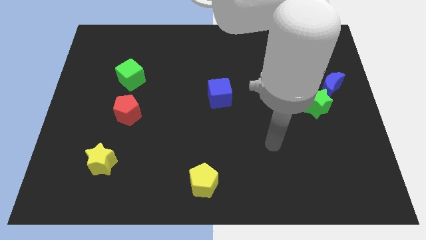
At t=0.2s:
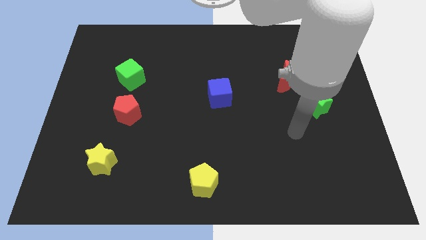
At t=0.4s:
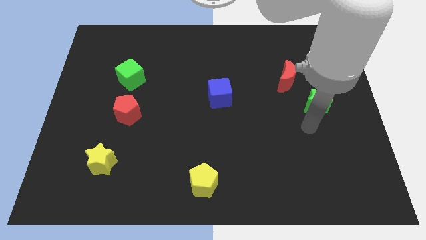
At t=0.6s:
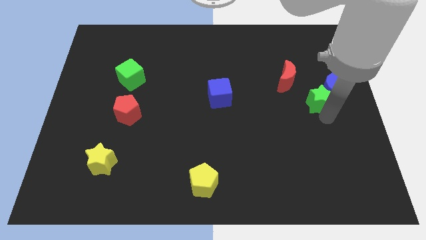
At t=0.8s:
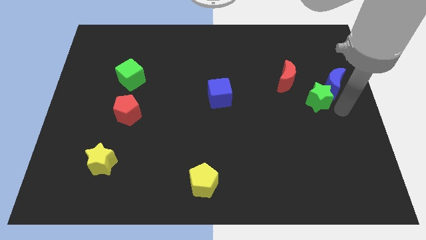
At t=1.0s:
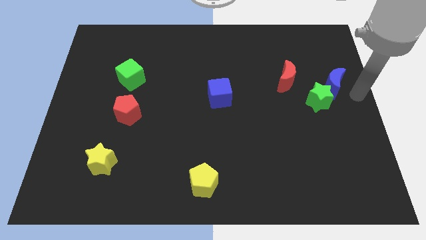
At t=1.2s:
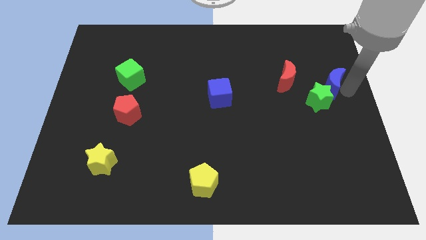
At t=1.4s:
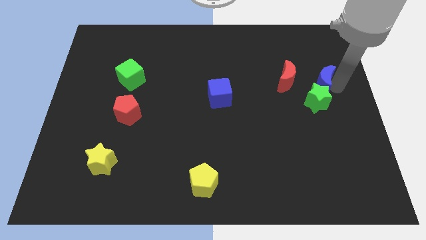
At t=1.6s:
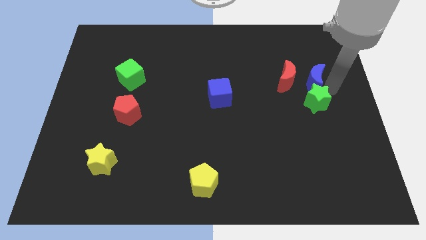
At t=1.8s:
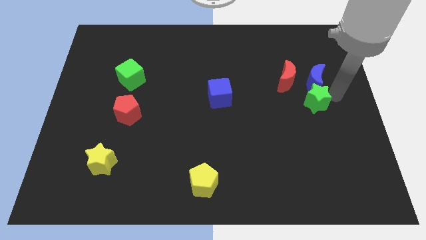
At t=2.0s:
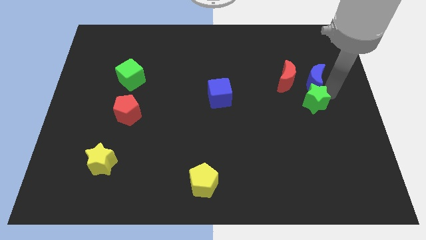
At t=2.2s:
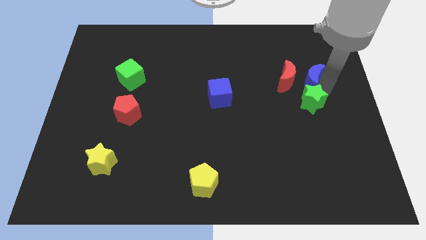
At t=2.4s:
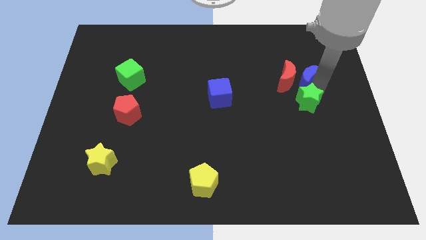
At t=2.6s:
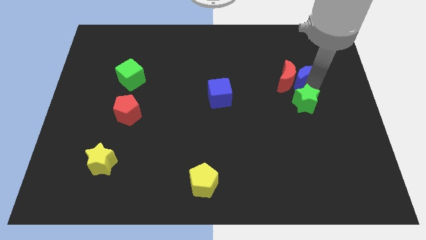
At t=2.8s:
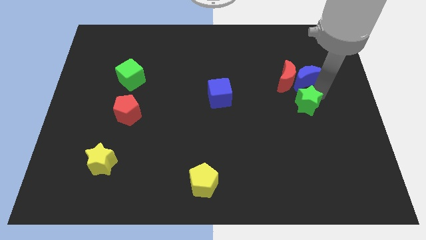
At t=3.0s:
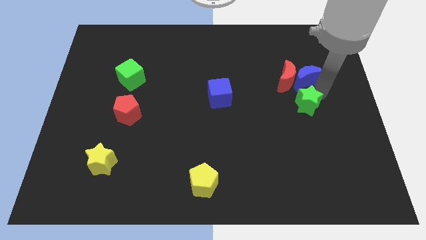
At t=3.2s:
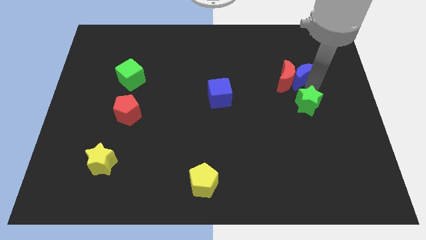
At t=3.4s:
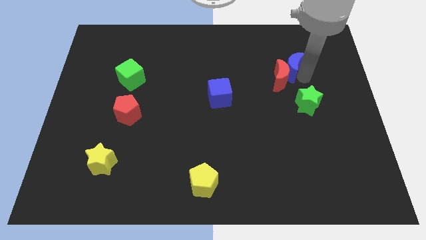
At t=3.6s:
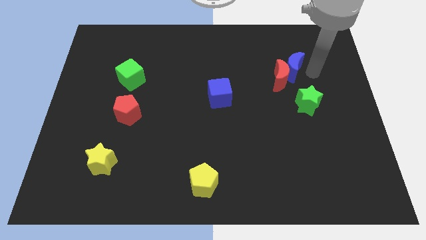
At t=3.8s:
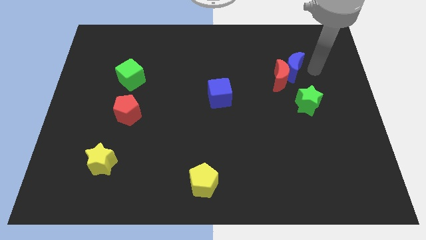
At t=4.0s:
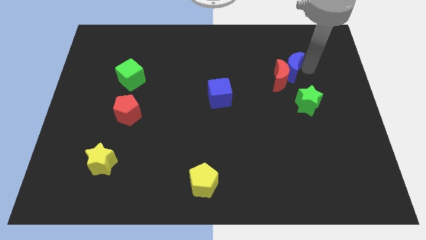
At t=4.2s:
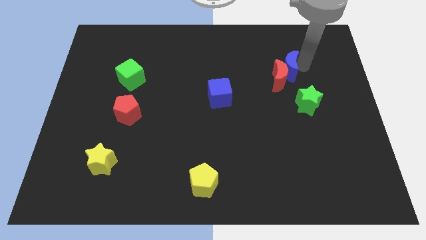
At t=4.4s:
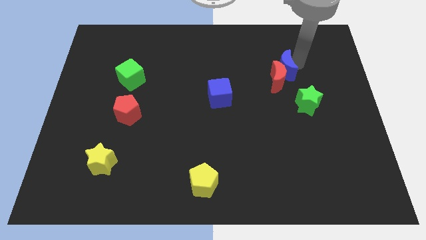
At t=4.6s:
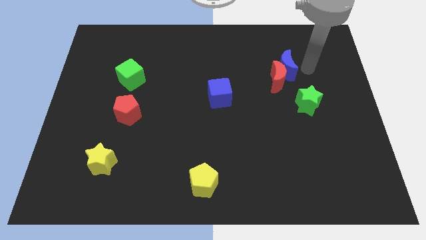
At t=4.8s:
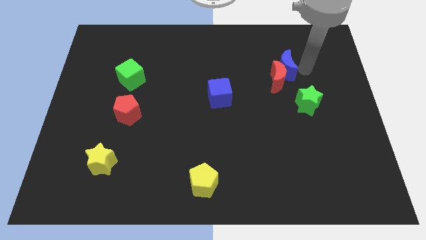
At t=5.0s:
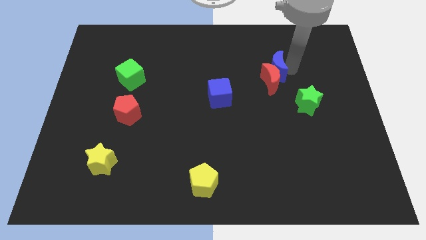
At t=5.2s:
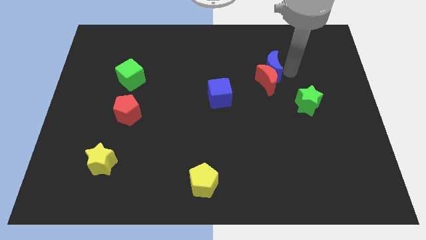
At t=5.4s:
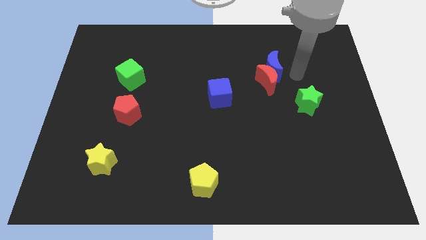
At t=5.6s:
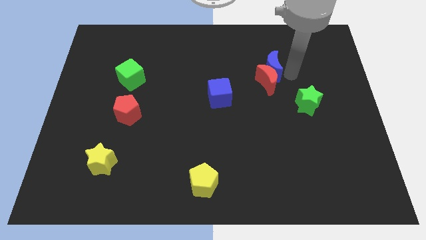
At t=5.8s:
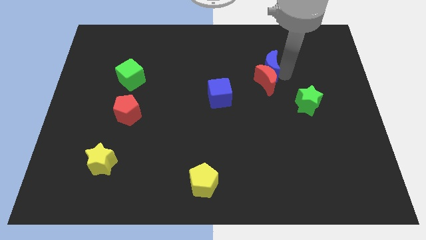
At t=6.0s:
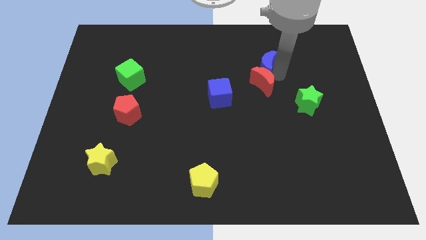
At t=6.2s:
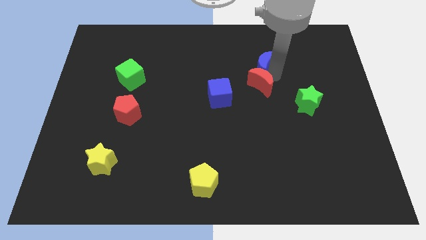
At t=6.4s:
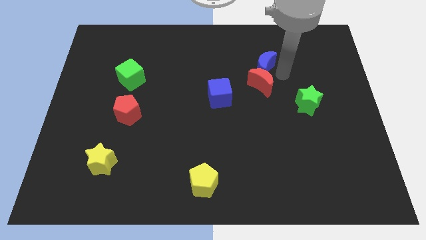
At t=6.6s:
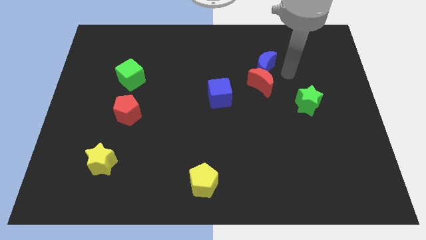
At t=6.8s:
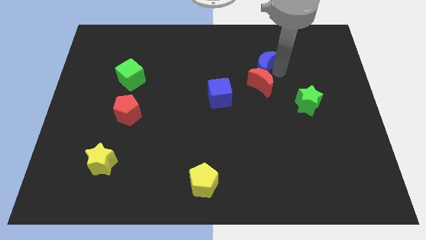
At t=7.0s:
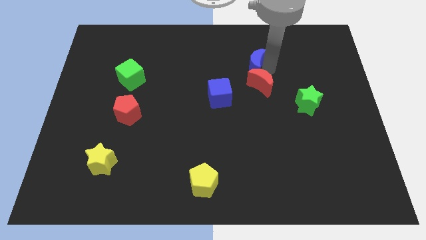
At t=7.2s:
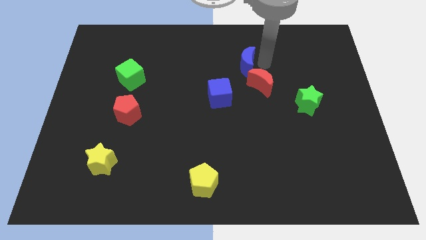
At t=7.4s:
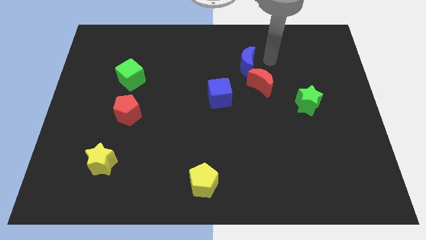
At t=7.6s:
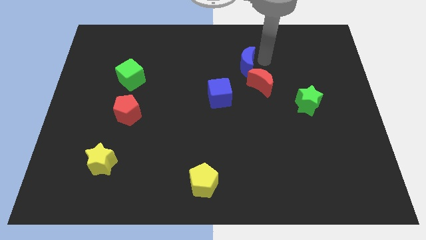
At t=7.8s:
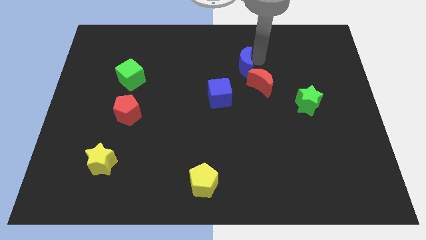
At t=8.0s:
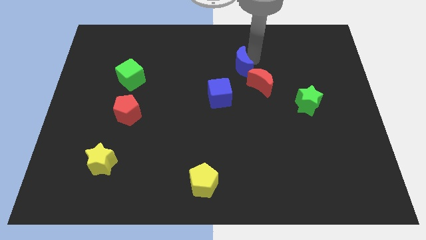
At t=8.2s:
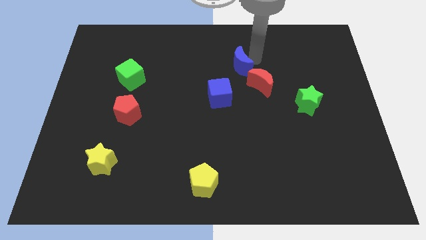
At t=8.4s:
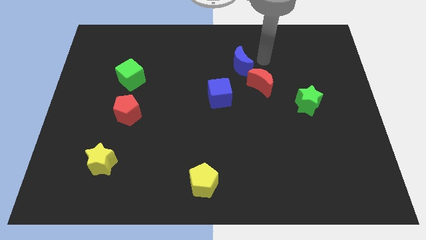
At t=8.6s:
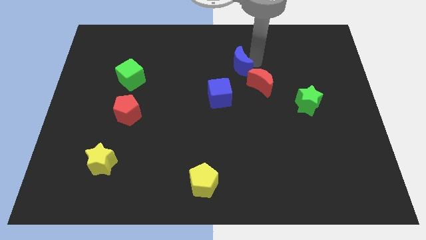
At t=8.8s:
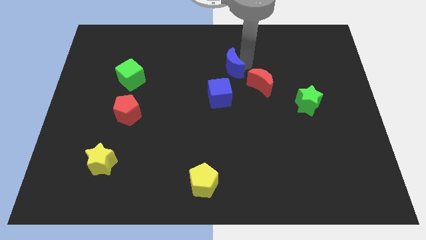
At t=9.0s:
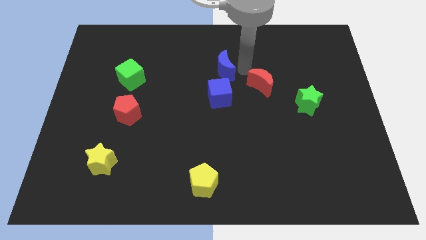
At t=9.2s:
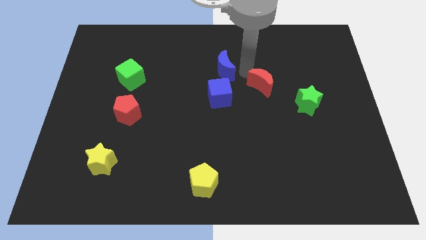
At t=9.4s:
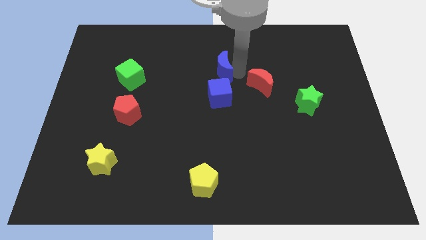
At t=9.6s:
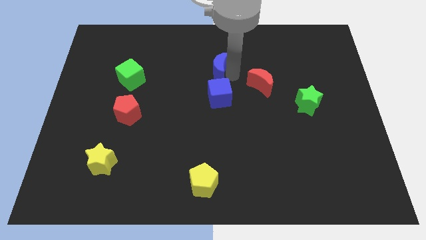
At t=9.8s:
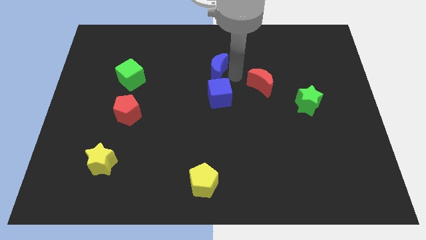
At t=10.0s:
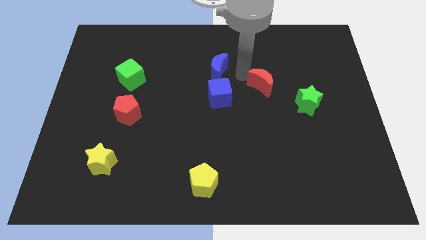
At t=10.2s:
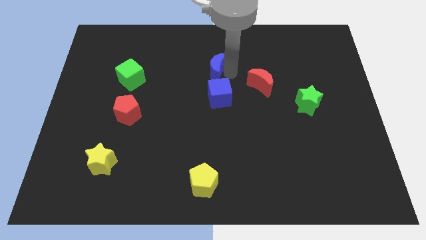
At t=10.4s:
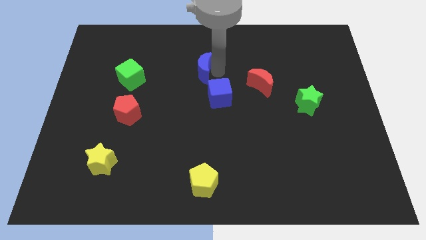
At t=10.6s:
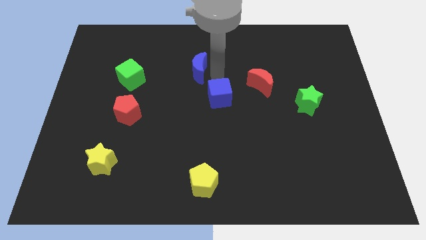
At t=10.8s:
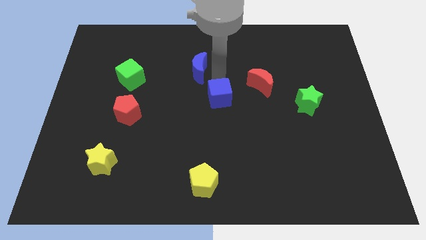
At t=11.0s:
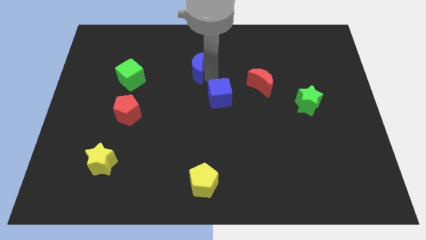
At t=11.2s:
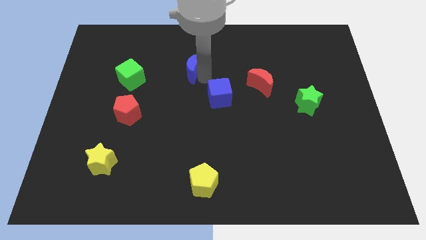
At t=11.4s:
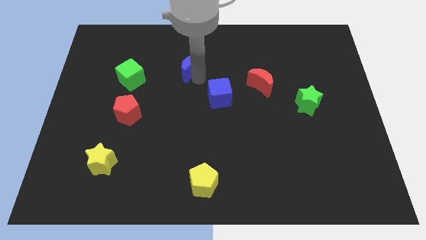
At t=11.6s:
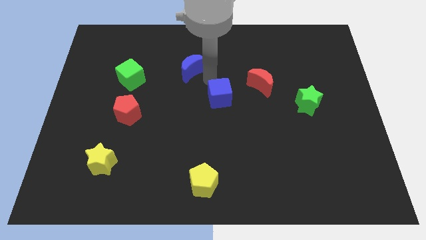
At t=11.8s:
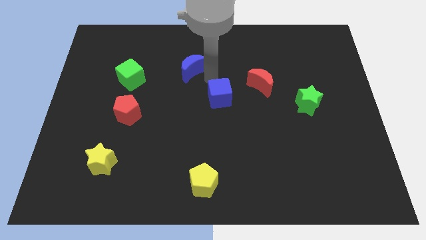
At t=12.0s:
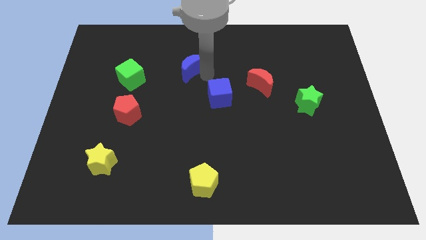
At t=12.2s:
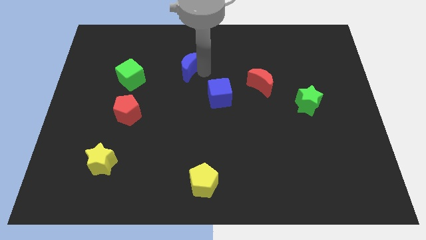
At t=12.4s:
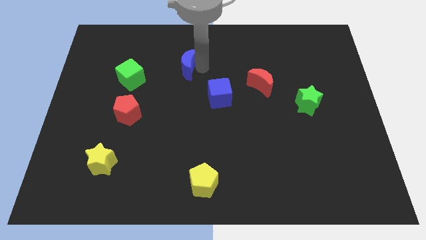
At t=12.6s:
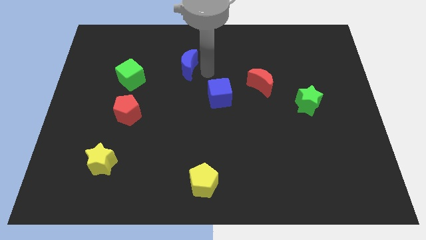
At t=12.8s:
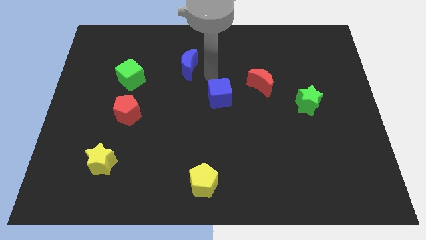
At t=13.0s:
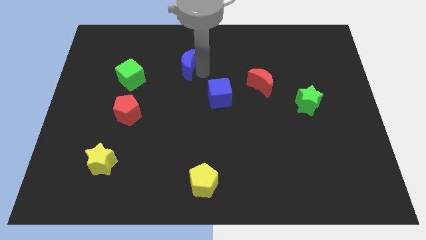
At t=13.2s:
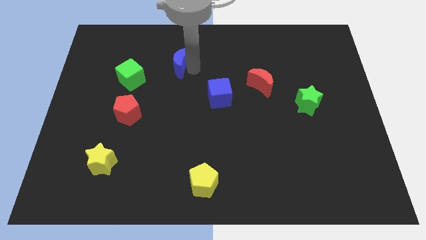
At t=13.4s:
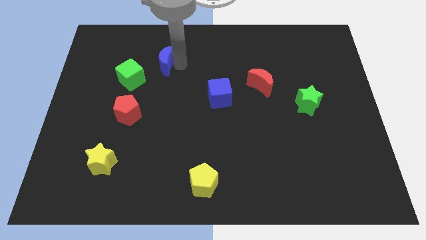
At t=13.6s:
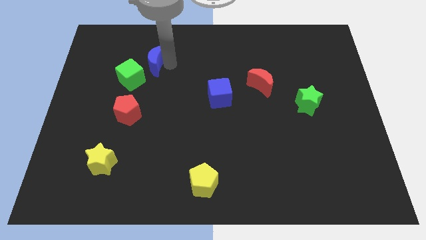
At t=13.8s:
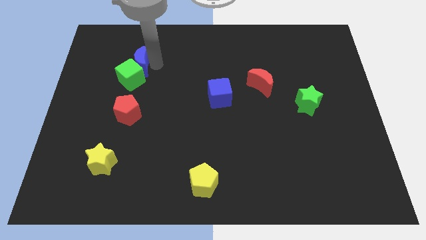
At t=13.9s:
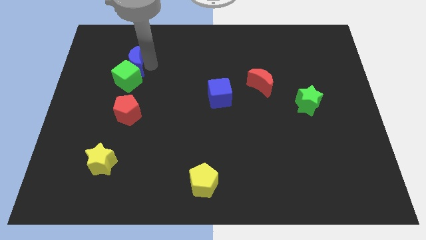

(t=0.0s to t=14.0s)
slide the blue moon to the top left of the green cube

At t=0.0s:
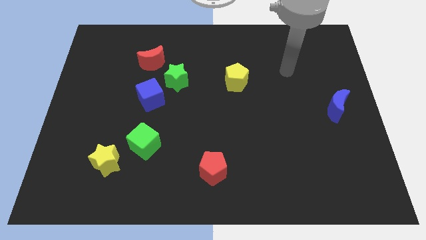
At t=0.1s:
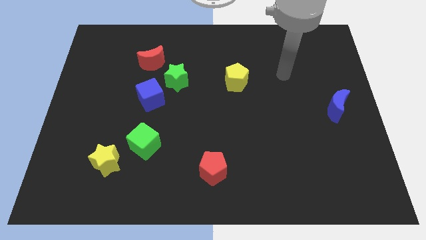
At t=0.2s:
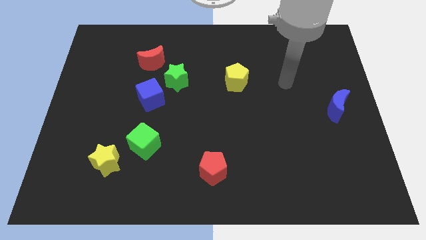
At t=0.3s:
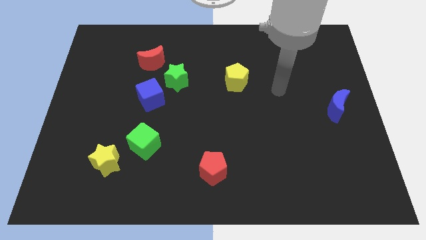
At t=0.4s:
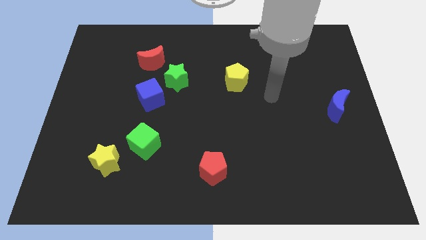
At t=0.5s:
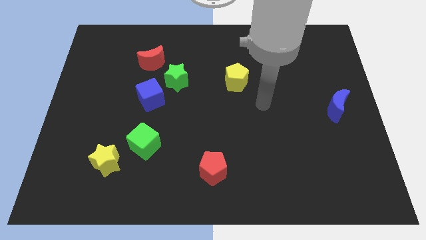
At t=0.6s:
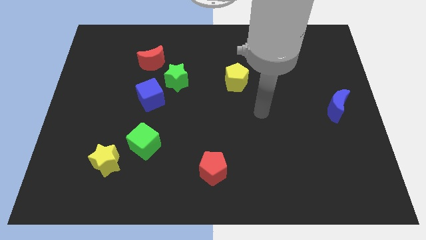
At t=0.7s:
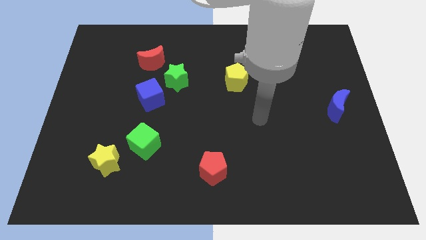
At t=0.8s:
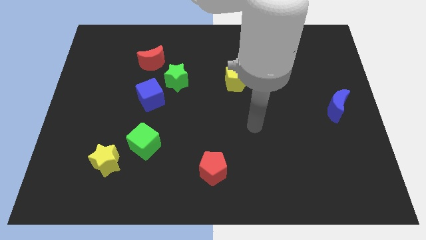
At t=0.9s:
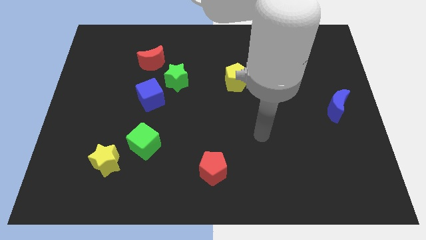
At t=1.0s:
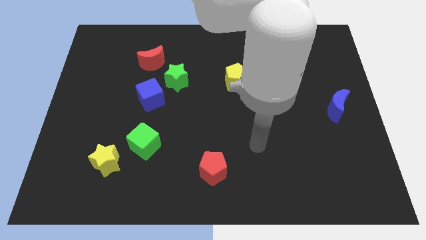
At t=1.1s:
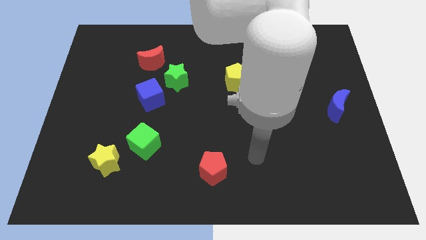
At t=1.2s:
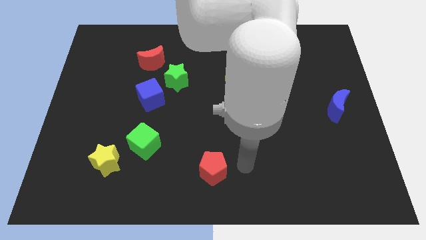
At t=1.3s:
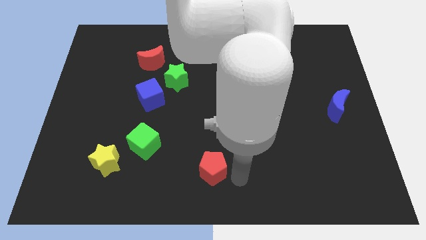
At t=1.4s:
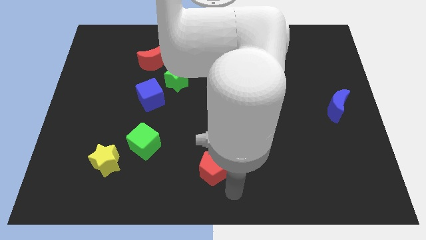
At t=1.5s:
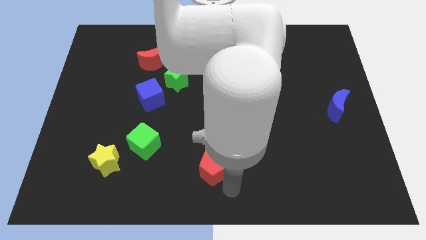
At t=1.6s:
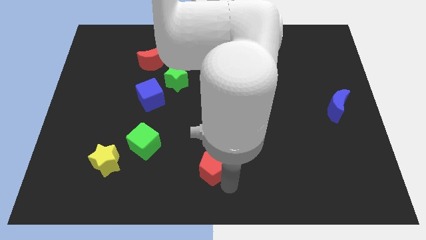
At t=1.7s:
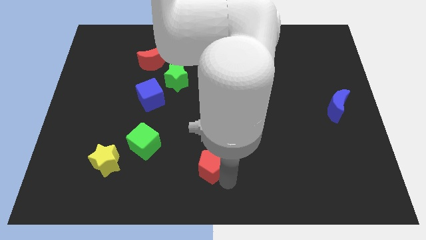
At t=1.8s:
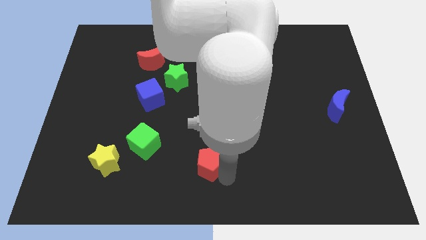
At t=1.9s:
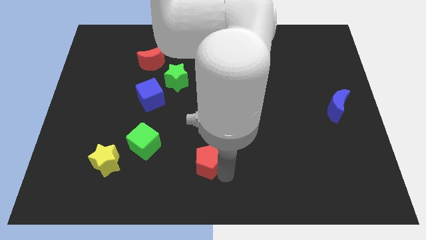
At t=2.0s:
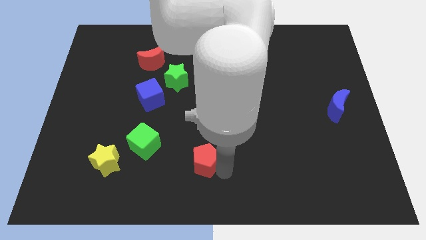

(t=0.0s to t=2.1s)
slide the red pentagon to the right side of the green cube
